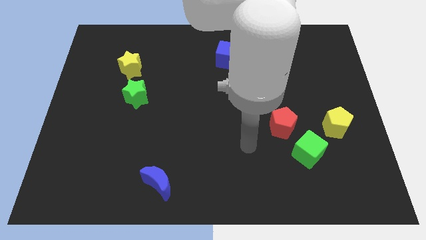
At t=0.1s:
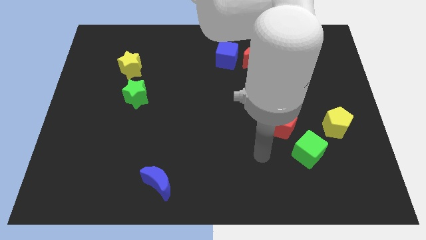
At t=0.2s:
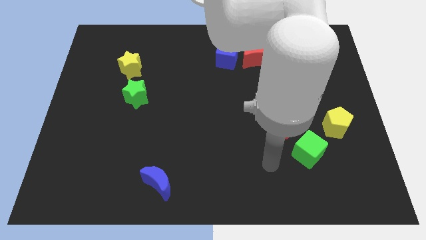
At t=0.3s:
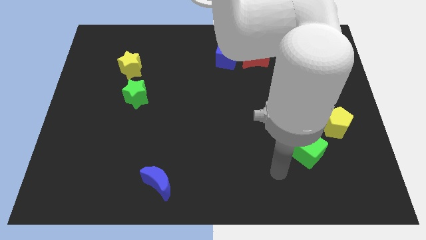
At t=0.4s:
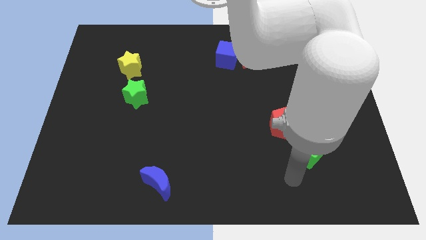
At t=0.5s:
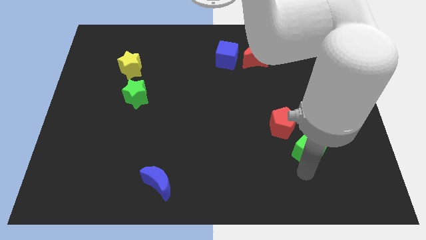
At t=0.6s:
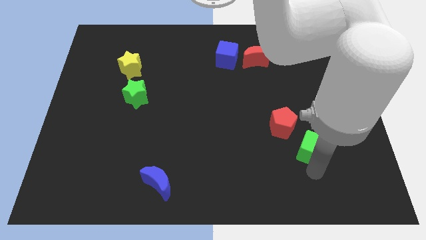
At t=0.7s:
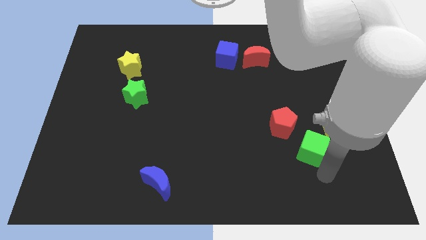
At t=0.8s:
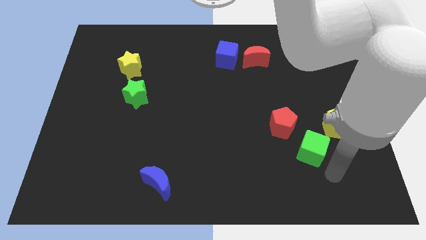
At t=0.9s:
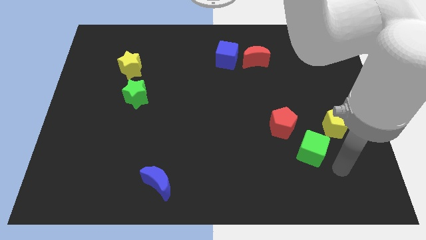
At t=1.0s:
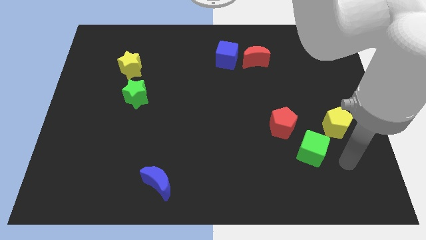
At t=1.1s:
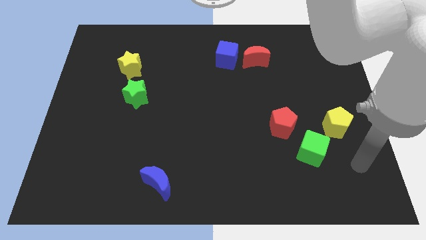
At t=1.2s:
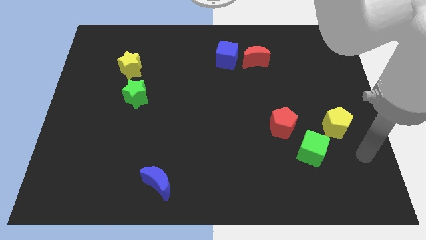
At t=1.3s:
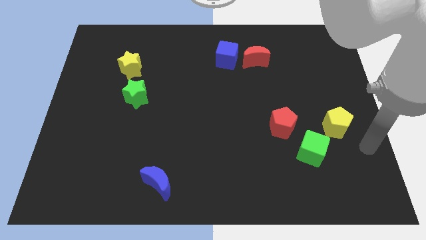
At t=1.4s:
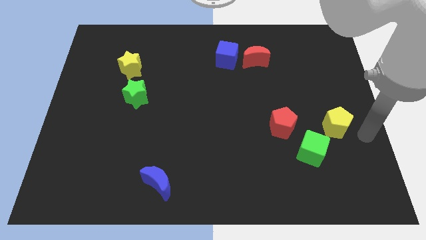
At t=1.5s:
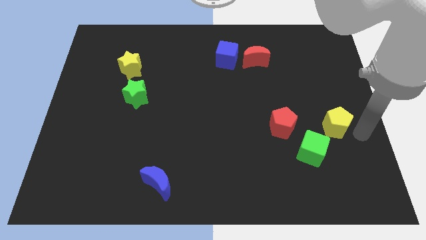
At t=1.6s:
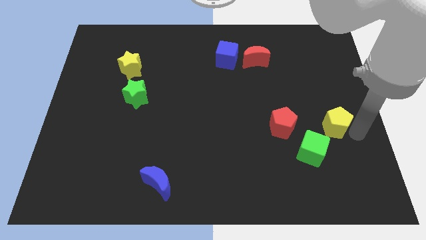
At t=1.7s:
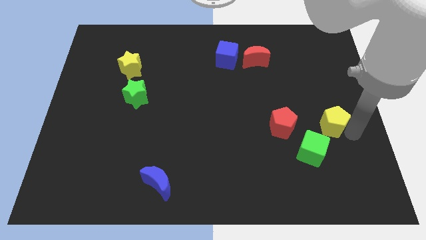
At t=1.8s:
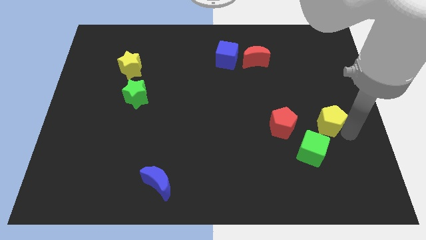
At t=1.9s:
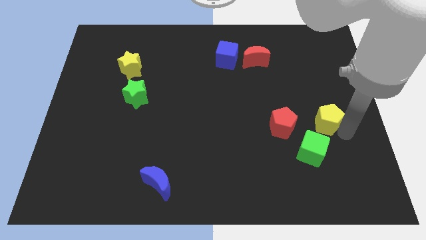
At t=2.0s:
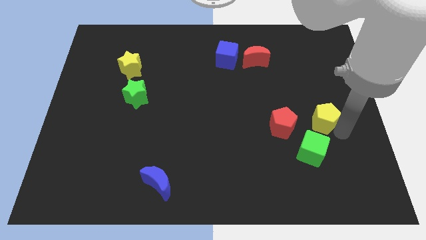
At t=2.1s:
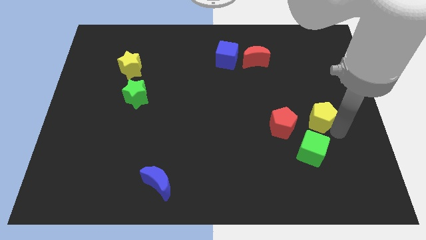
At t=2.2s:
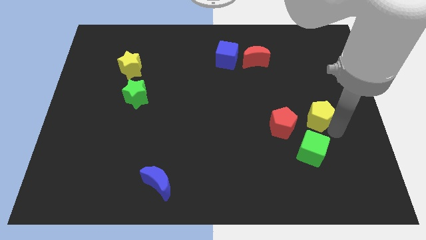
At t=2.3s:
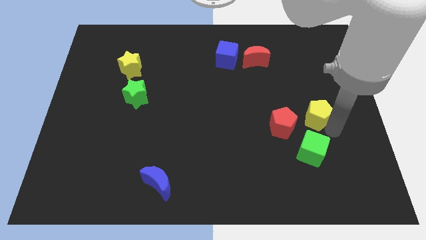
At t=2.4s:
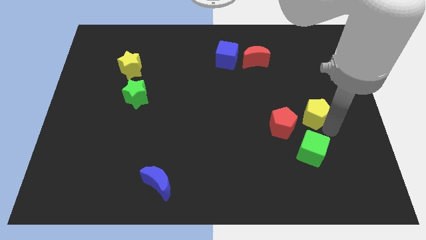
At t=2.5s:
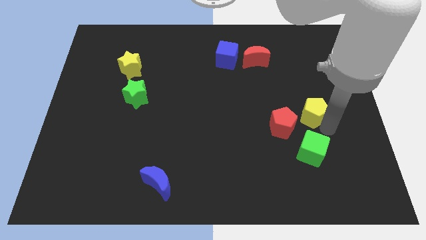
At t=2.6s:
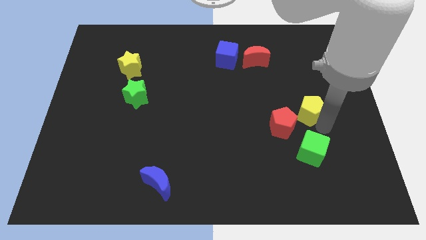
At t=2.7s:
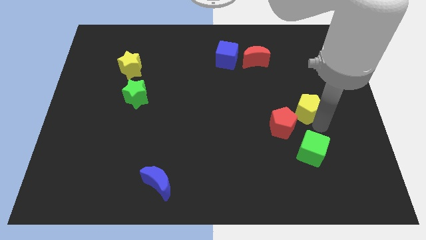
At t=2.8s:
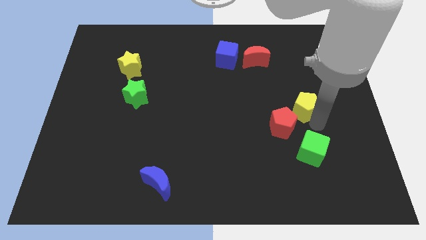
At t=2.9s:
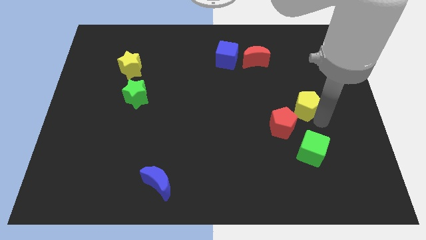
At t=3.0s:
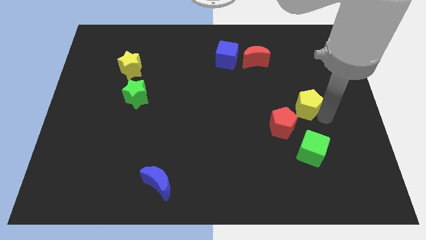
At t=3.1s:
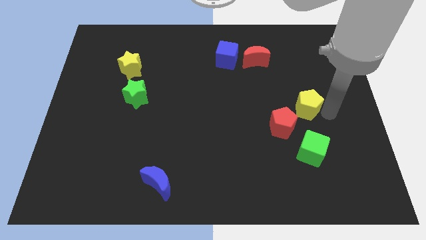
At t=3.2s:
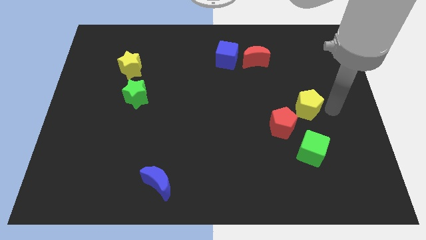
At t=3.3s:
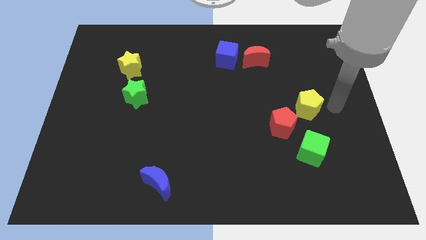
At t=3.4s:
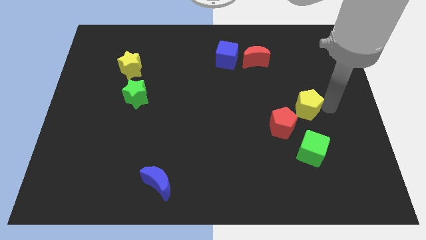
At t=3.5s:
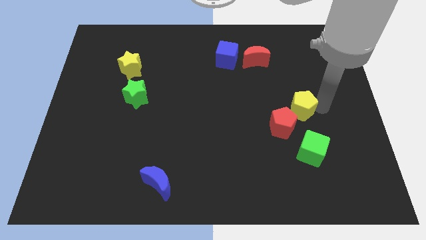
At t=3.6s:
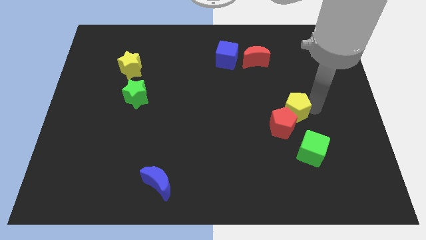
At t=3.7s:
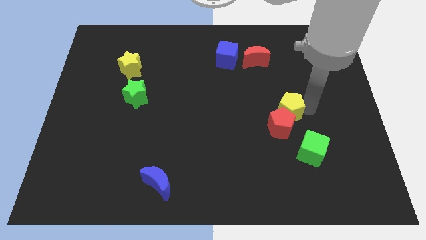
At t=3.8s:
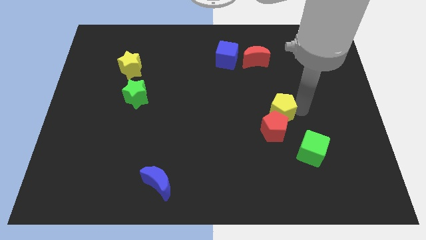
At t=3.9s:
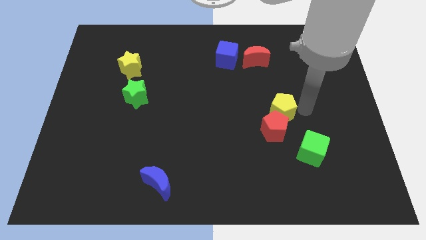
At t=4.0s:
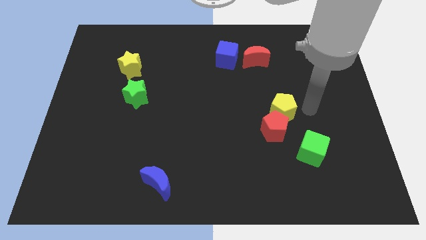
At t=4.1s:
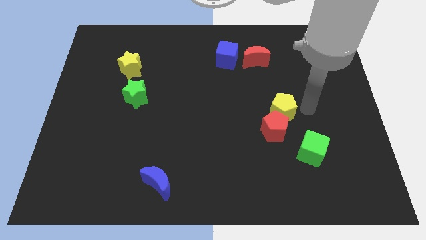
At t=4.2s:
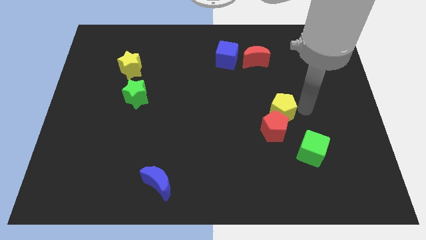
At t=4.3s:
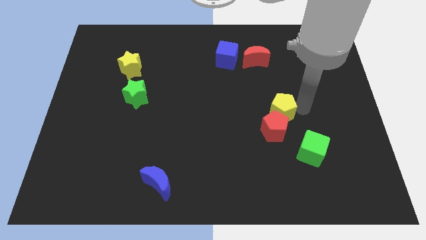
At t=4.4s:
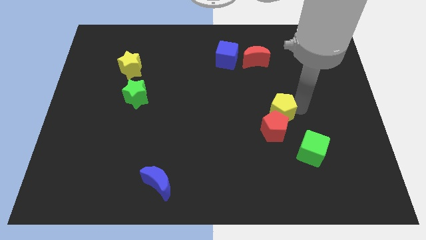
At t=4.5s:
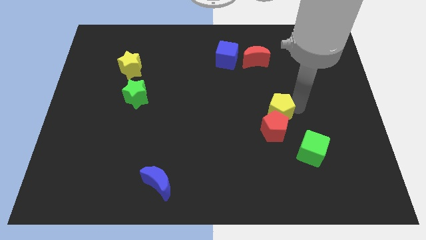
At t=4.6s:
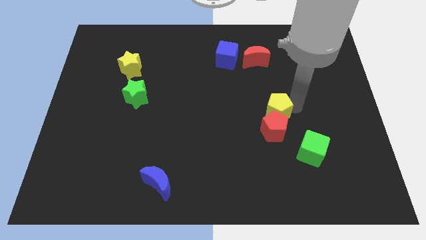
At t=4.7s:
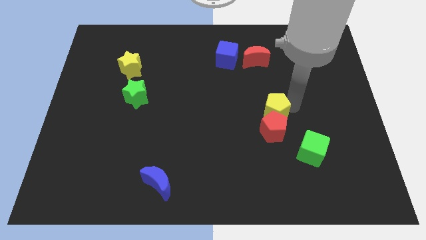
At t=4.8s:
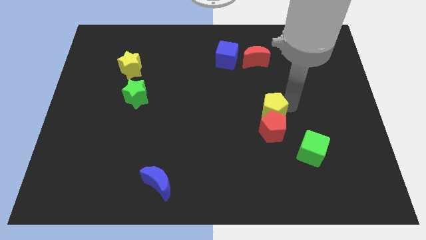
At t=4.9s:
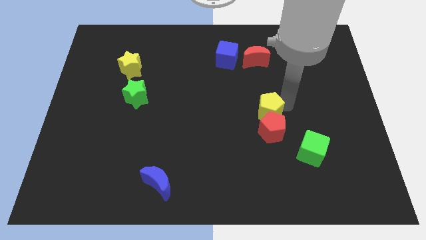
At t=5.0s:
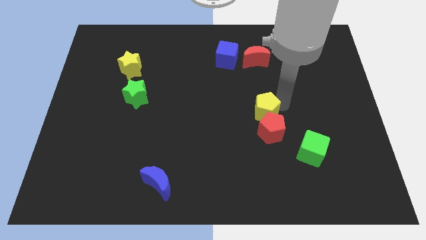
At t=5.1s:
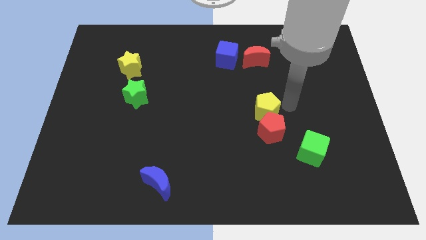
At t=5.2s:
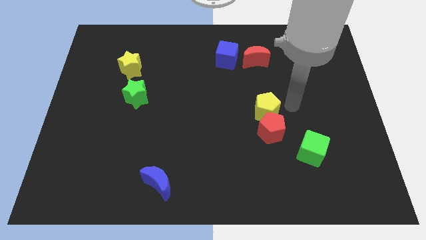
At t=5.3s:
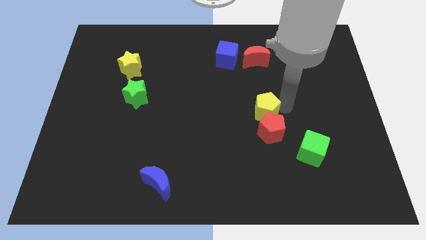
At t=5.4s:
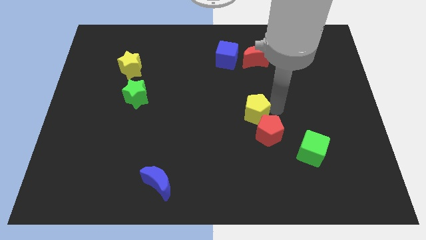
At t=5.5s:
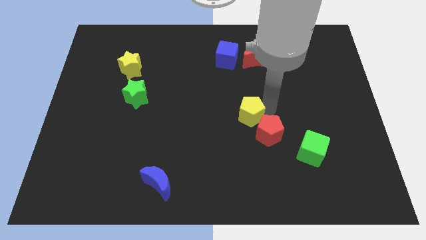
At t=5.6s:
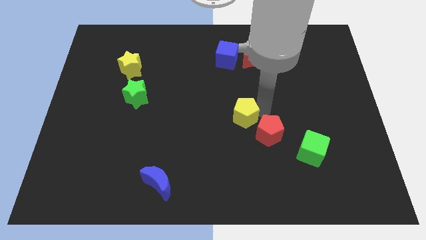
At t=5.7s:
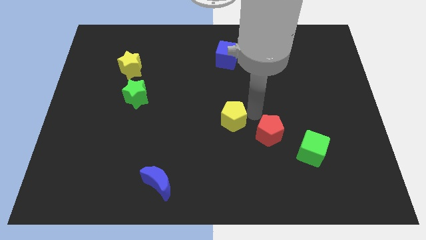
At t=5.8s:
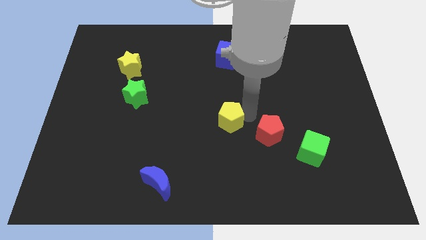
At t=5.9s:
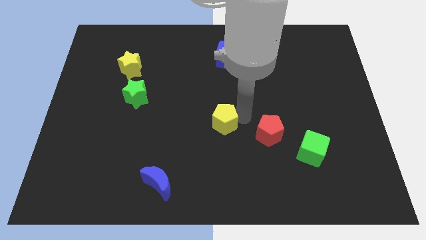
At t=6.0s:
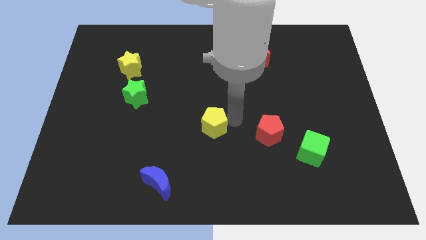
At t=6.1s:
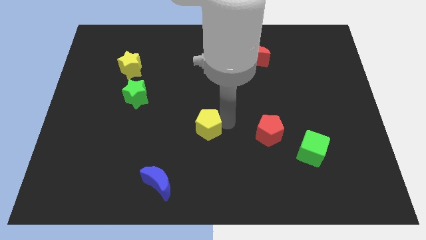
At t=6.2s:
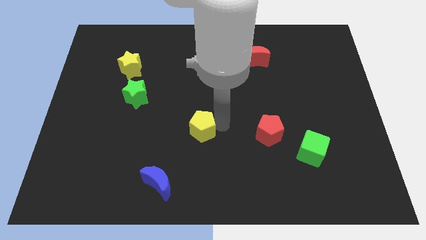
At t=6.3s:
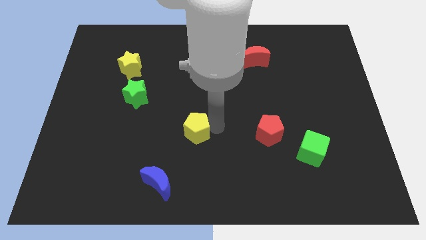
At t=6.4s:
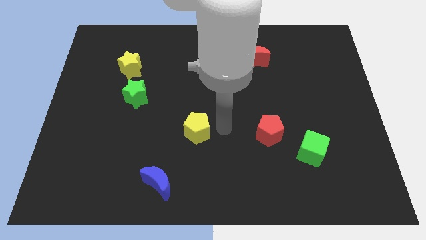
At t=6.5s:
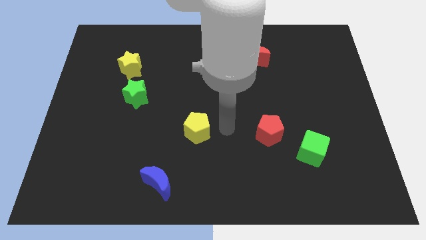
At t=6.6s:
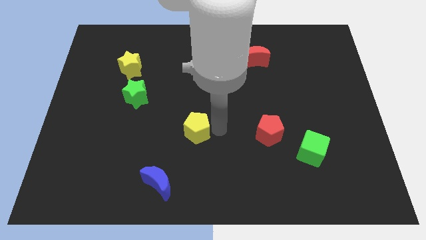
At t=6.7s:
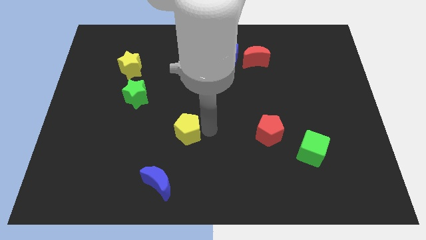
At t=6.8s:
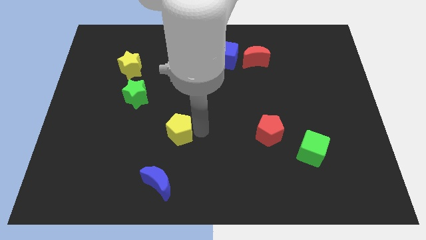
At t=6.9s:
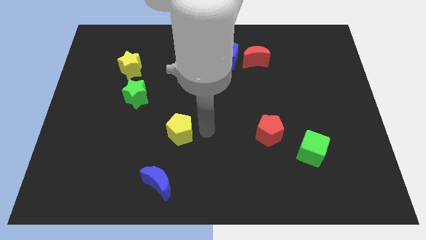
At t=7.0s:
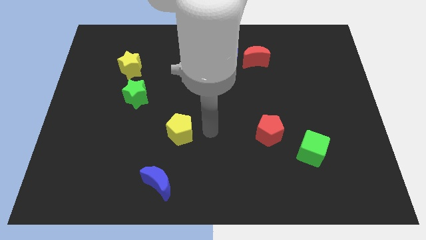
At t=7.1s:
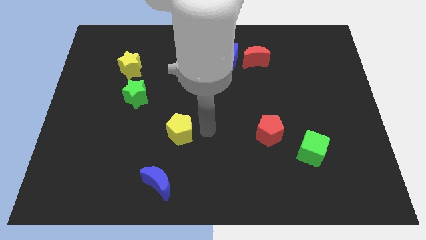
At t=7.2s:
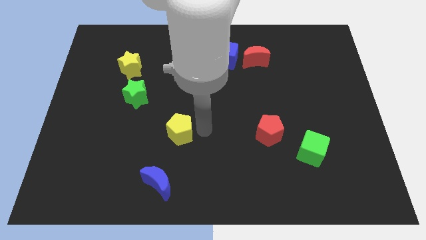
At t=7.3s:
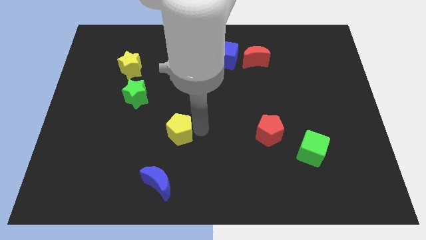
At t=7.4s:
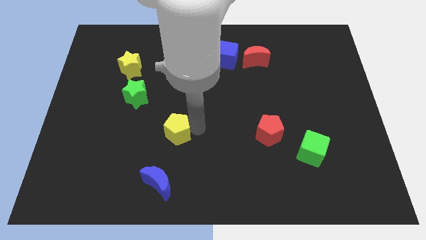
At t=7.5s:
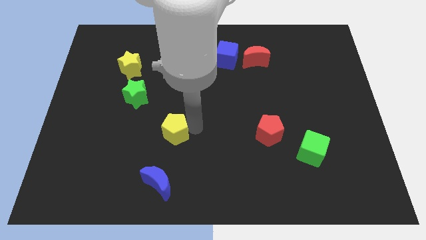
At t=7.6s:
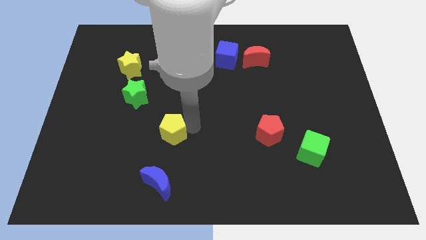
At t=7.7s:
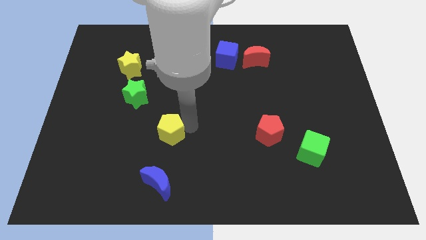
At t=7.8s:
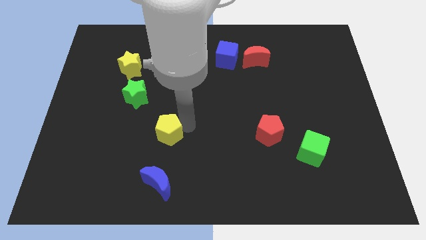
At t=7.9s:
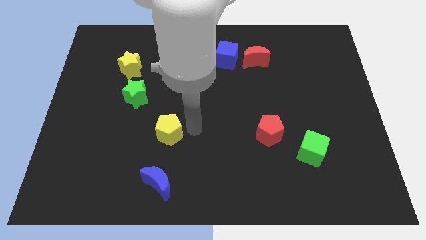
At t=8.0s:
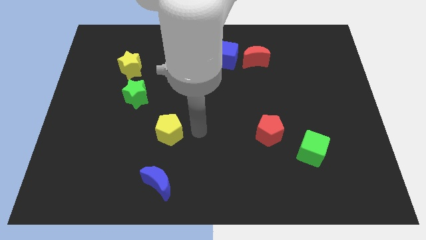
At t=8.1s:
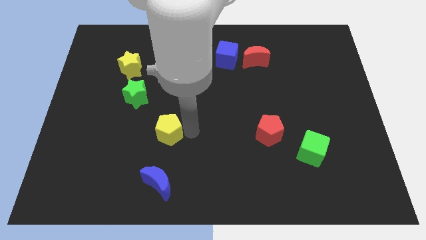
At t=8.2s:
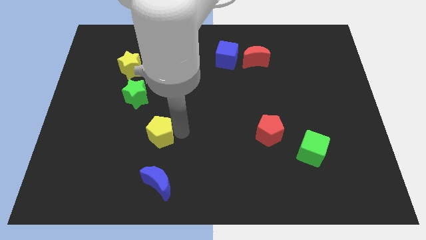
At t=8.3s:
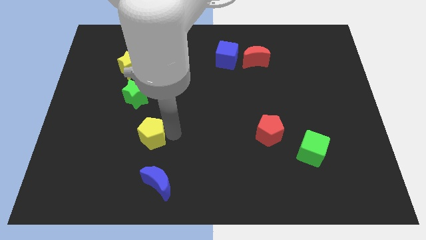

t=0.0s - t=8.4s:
put the yellow pentagon to the bottom side of the green star

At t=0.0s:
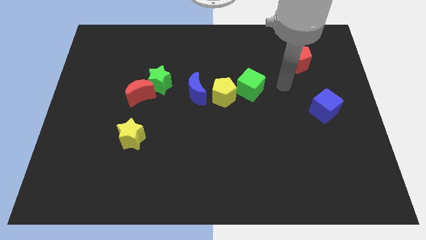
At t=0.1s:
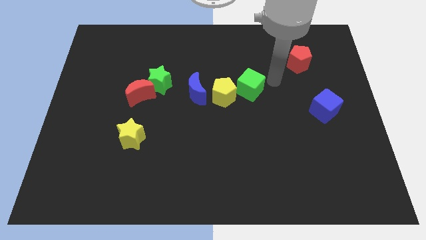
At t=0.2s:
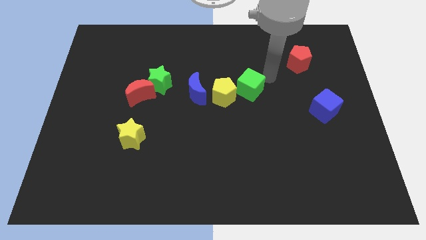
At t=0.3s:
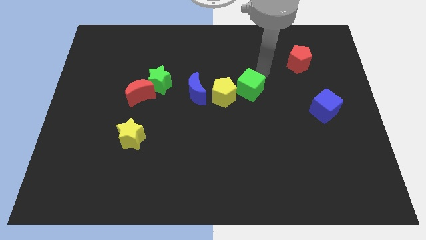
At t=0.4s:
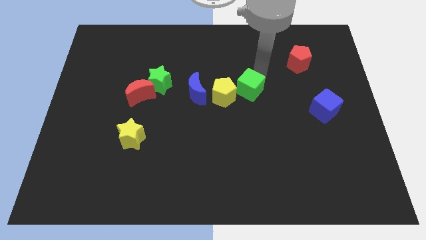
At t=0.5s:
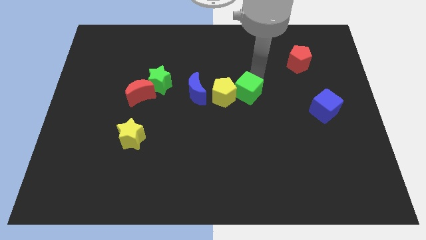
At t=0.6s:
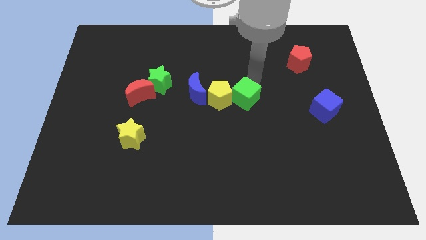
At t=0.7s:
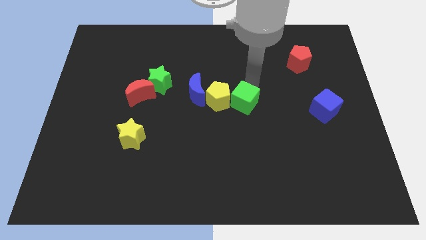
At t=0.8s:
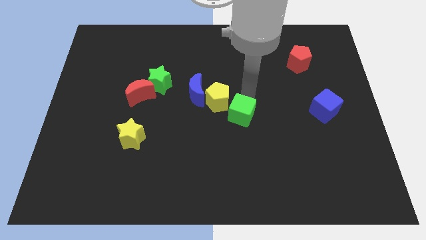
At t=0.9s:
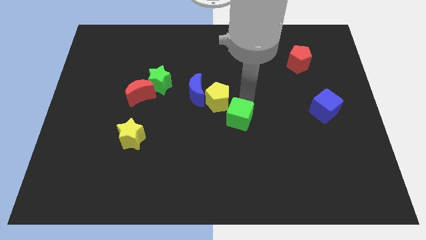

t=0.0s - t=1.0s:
push the green cube to the bottom side of the yellow pentagon
